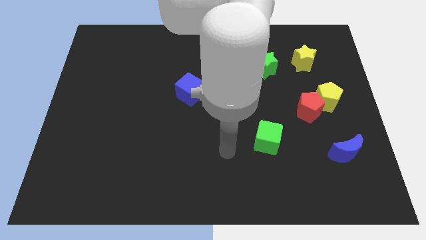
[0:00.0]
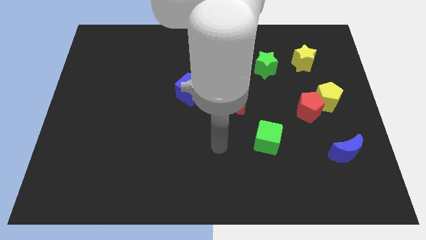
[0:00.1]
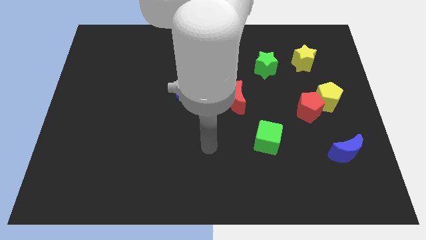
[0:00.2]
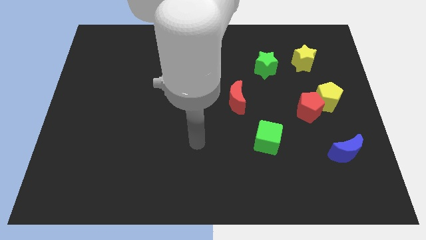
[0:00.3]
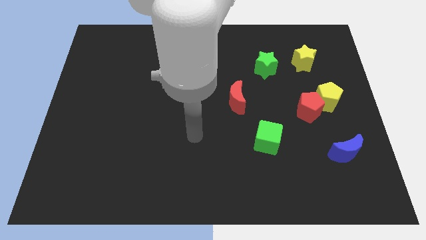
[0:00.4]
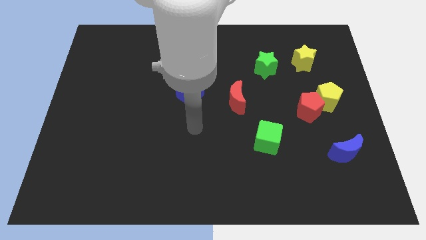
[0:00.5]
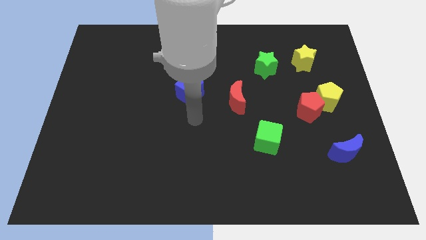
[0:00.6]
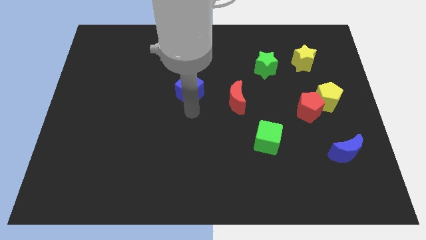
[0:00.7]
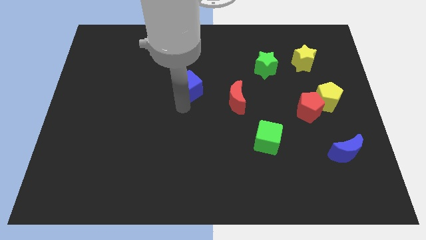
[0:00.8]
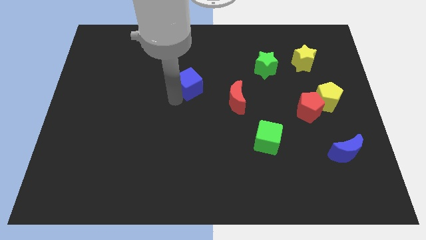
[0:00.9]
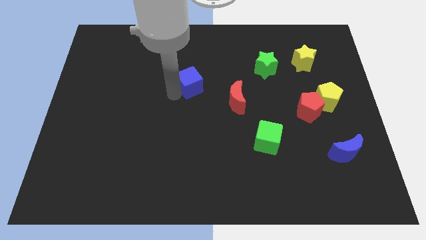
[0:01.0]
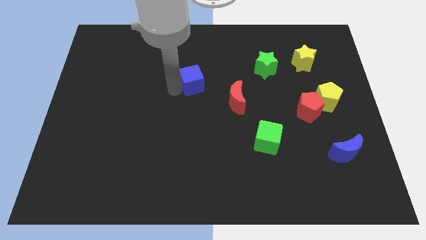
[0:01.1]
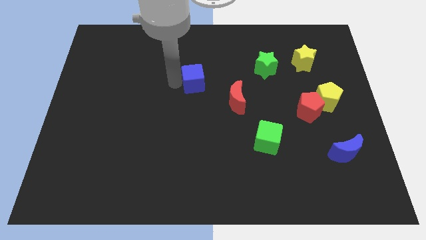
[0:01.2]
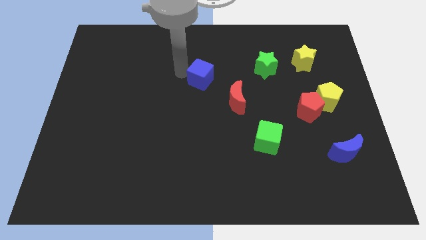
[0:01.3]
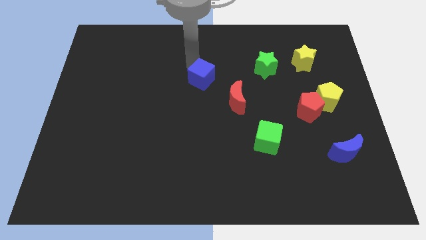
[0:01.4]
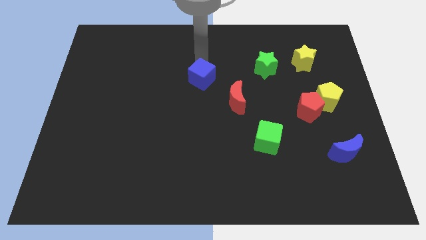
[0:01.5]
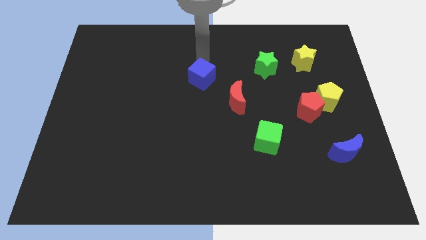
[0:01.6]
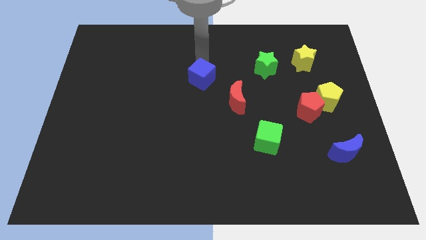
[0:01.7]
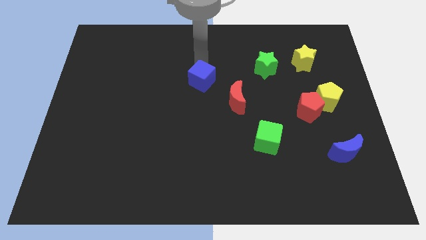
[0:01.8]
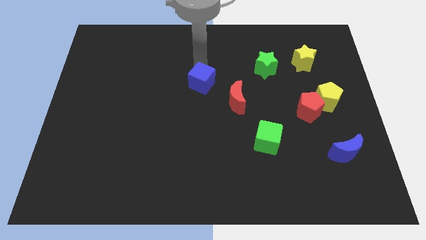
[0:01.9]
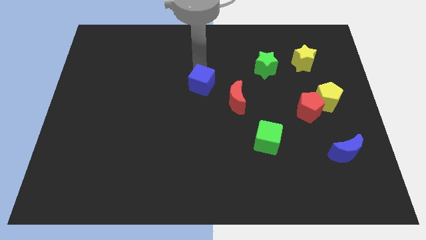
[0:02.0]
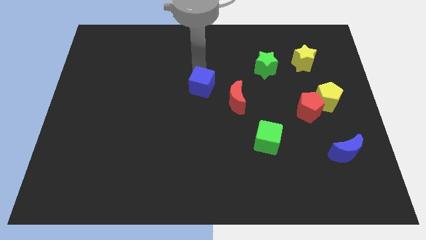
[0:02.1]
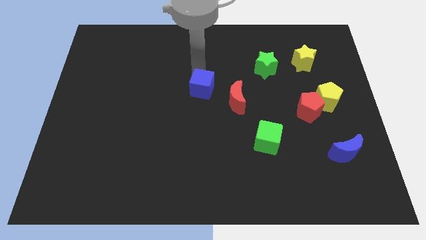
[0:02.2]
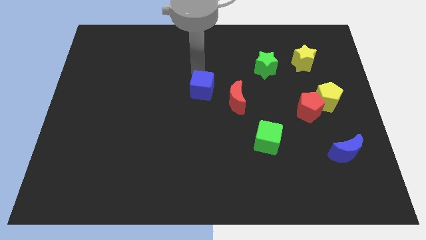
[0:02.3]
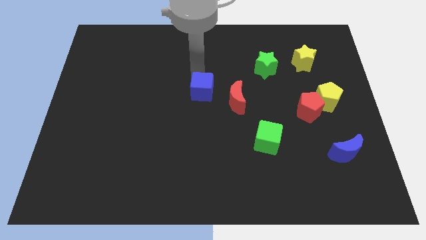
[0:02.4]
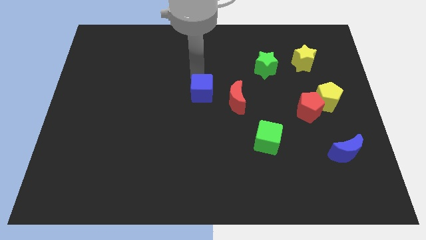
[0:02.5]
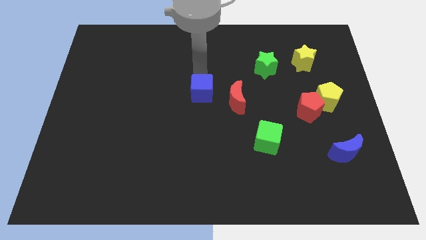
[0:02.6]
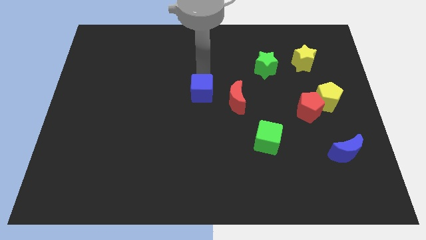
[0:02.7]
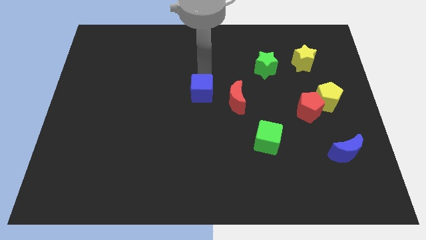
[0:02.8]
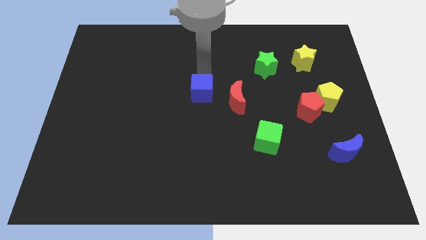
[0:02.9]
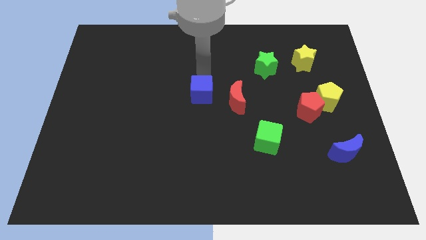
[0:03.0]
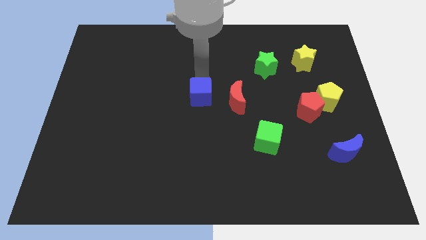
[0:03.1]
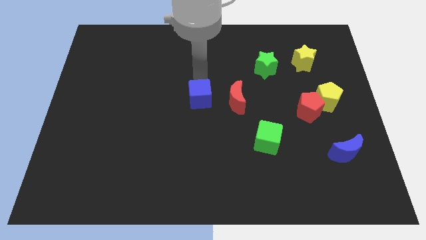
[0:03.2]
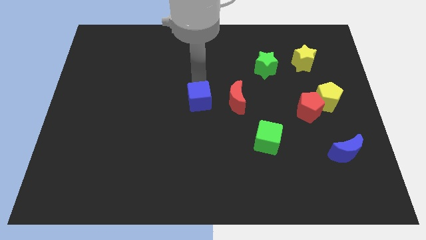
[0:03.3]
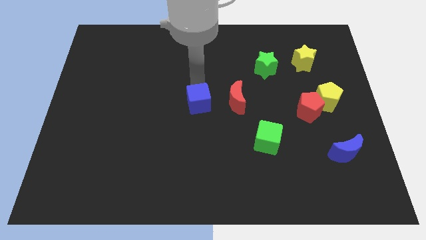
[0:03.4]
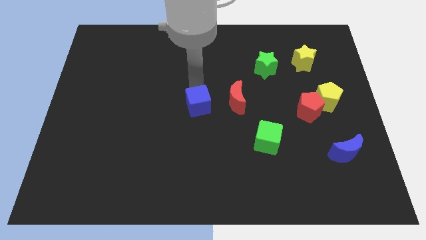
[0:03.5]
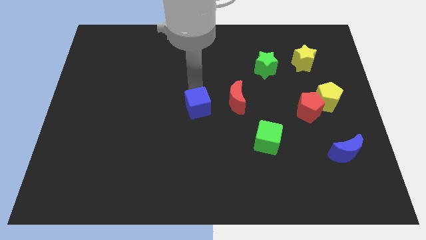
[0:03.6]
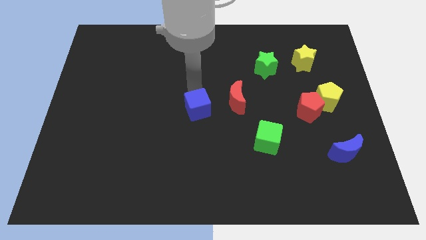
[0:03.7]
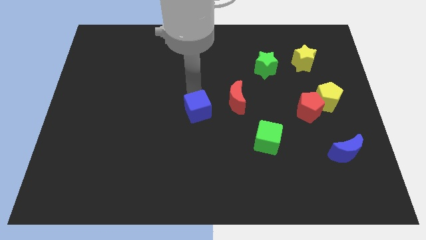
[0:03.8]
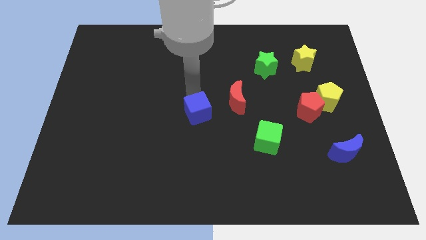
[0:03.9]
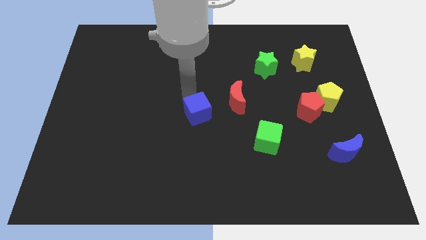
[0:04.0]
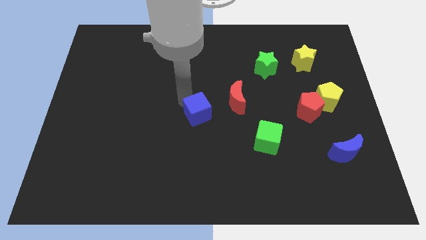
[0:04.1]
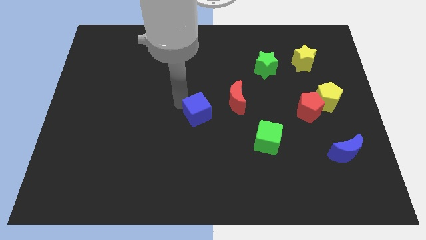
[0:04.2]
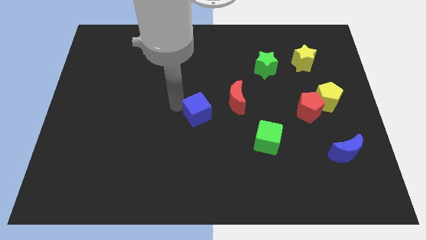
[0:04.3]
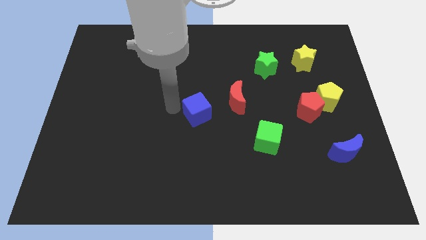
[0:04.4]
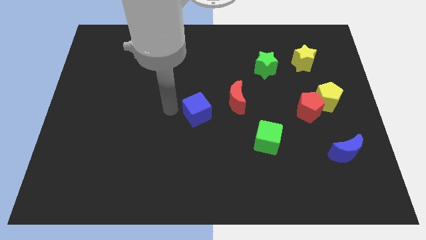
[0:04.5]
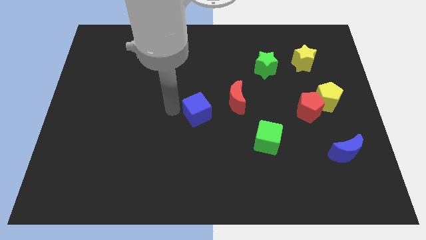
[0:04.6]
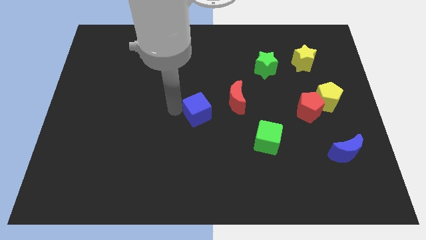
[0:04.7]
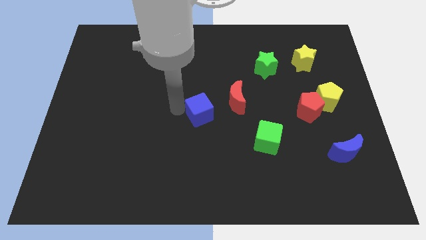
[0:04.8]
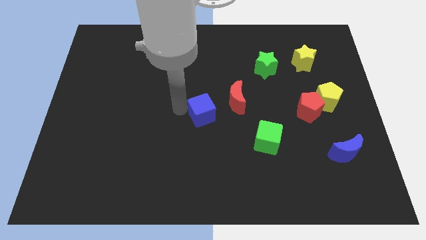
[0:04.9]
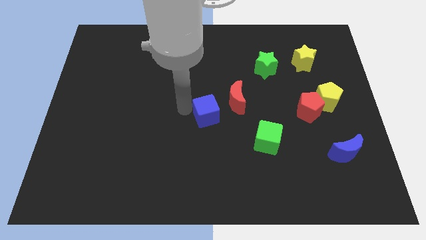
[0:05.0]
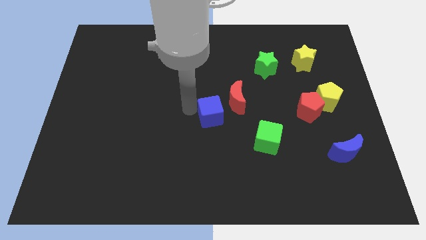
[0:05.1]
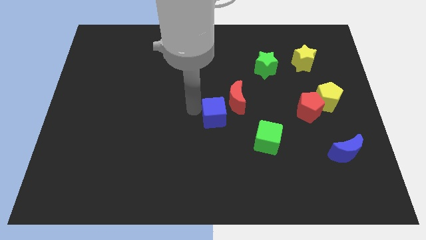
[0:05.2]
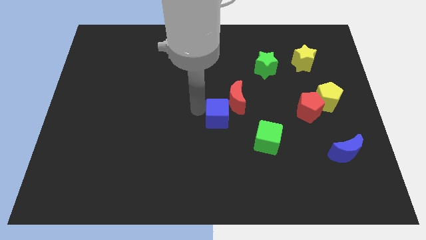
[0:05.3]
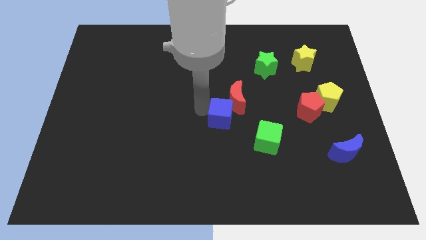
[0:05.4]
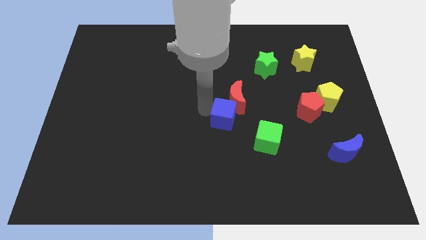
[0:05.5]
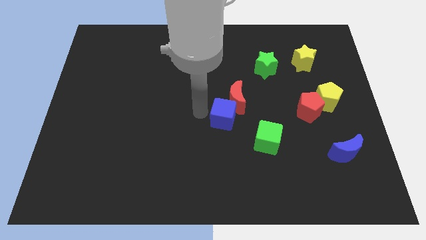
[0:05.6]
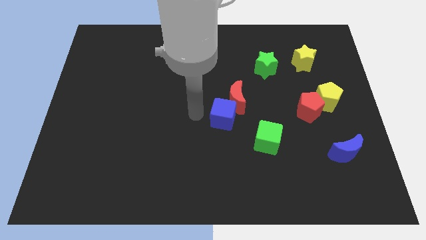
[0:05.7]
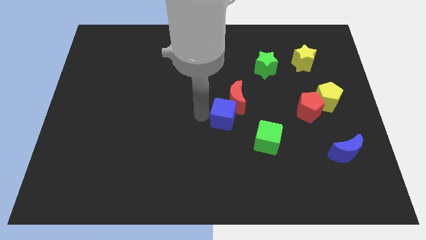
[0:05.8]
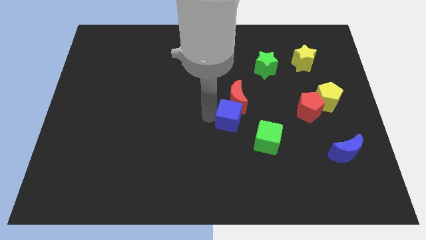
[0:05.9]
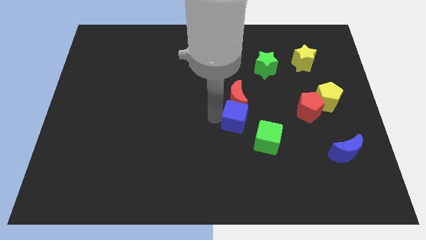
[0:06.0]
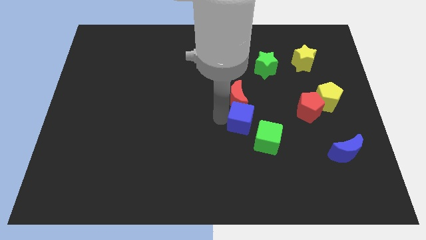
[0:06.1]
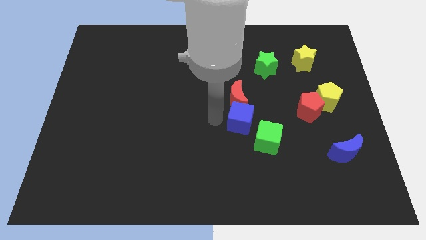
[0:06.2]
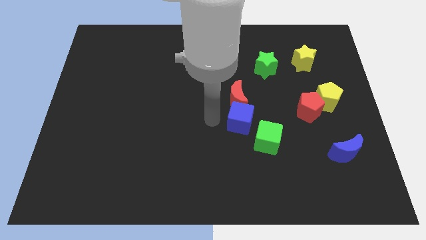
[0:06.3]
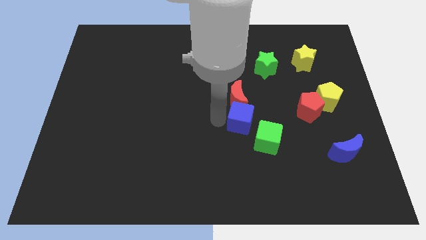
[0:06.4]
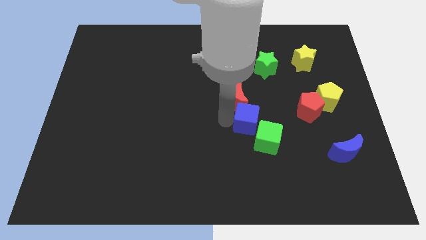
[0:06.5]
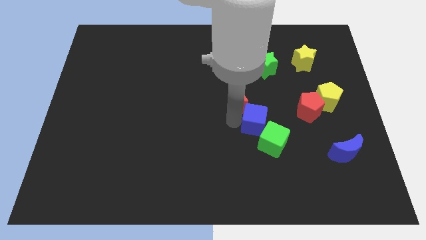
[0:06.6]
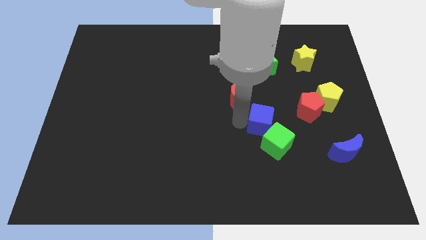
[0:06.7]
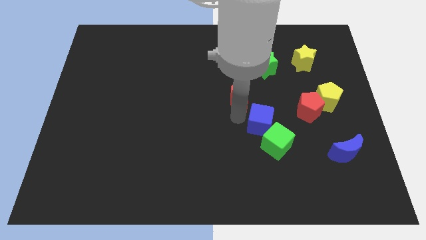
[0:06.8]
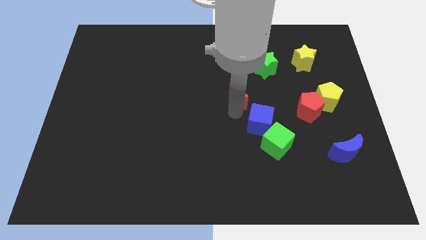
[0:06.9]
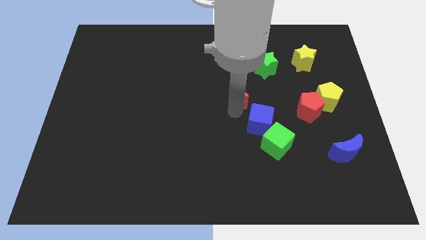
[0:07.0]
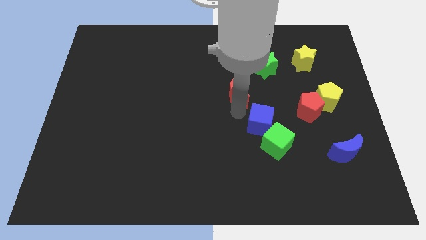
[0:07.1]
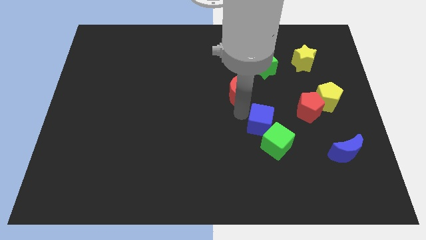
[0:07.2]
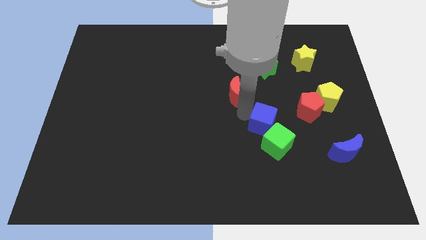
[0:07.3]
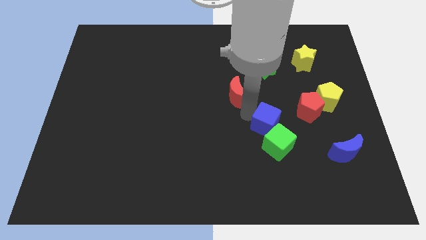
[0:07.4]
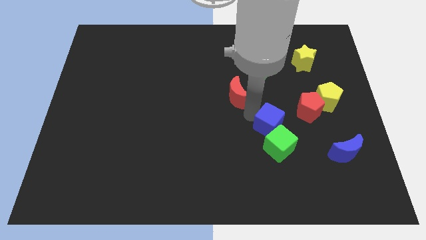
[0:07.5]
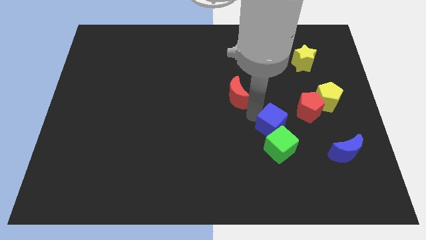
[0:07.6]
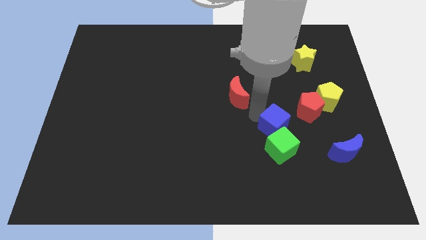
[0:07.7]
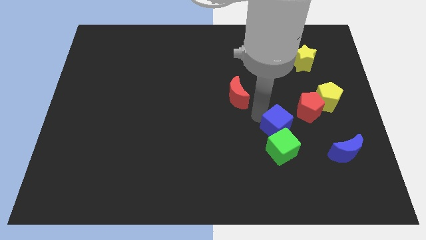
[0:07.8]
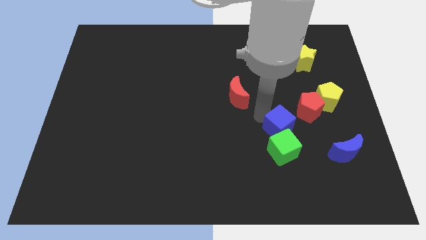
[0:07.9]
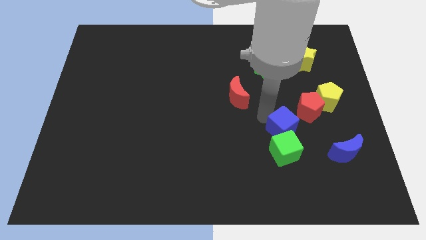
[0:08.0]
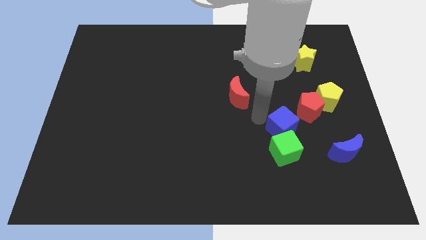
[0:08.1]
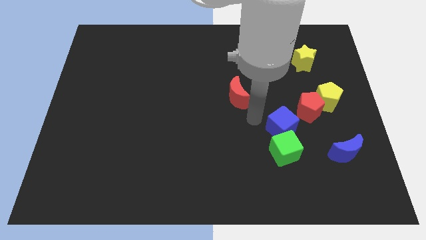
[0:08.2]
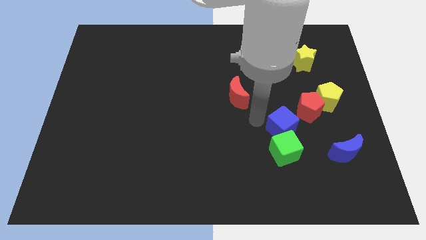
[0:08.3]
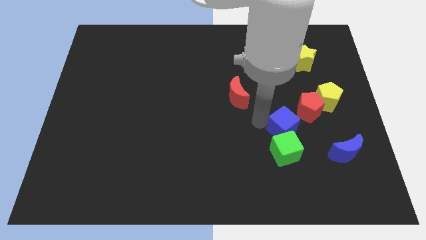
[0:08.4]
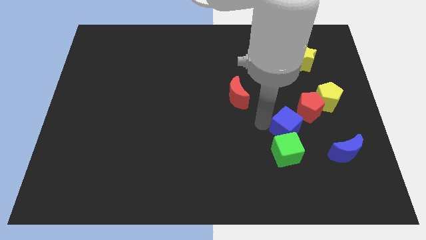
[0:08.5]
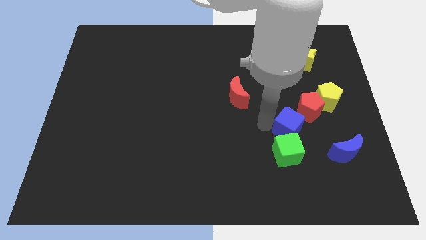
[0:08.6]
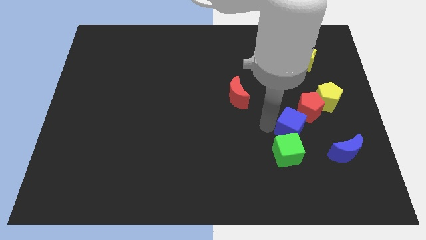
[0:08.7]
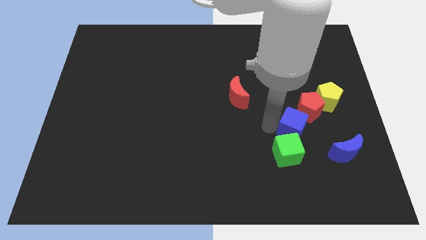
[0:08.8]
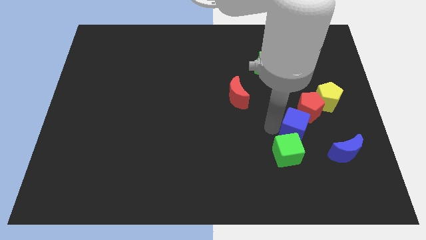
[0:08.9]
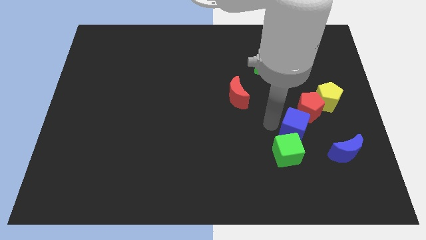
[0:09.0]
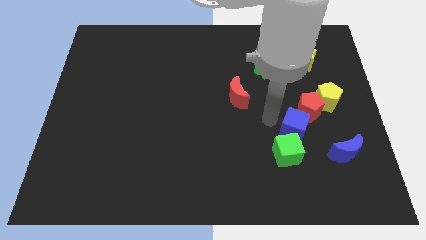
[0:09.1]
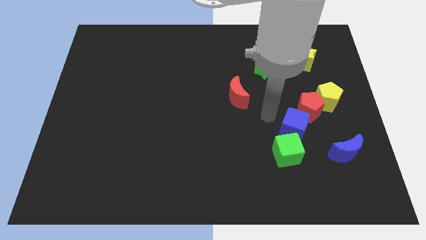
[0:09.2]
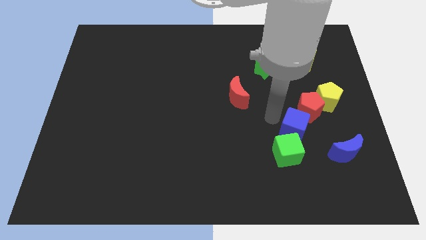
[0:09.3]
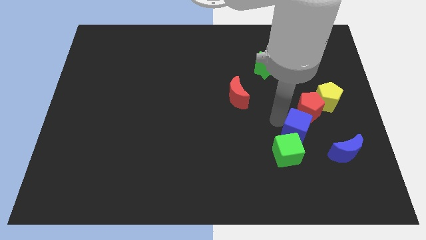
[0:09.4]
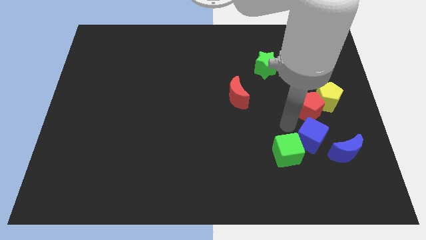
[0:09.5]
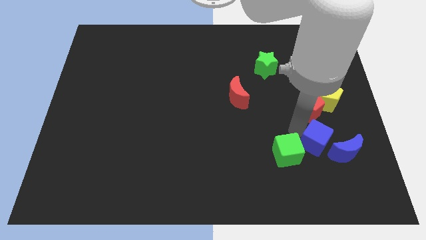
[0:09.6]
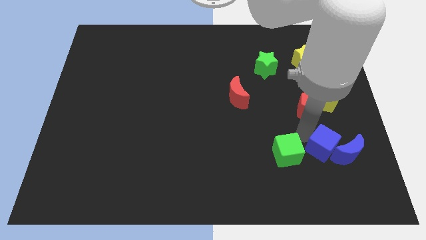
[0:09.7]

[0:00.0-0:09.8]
put the blue cube to the blue moon
